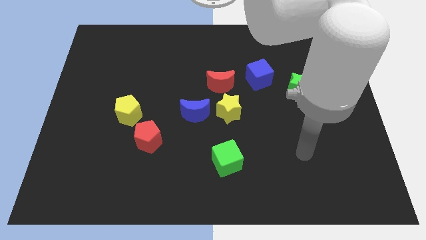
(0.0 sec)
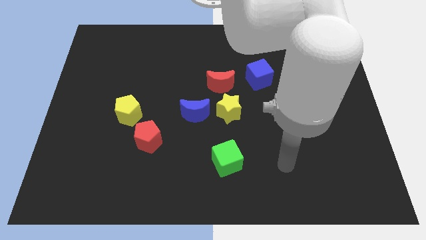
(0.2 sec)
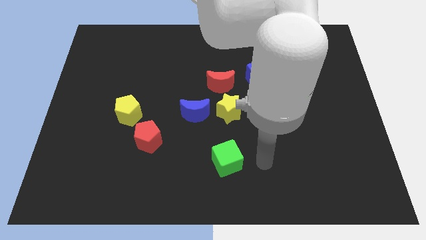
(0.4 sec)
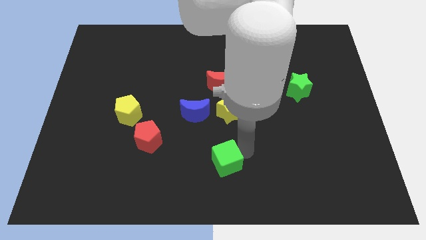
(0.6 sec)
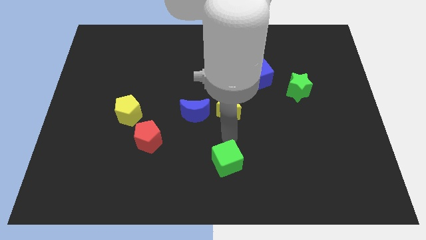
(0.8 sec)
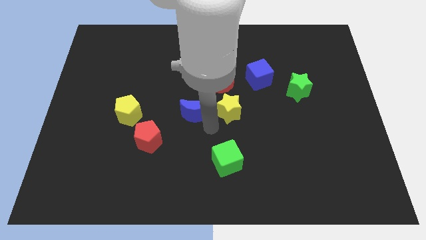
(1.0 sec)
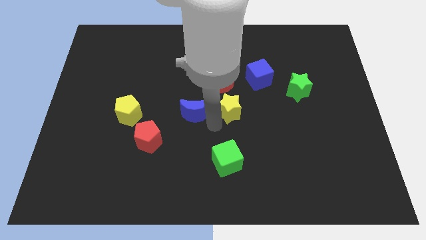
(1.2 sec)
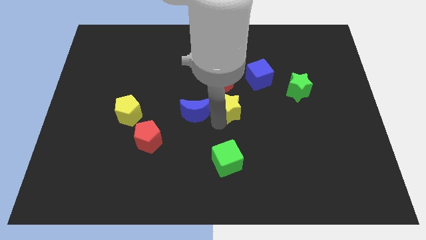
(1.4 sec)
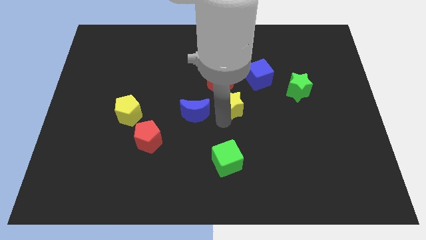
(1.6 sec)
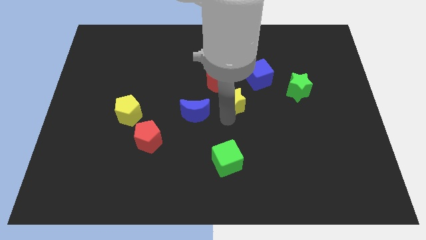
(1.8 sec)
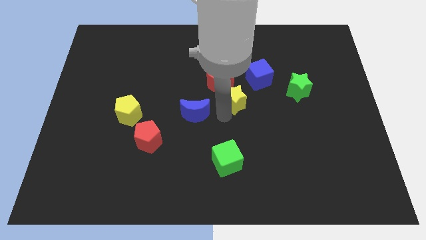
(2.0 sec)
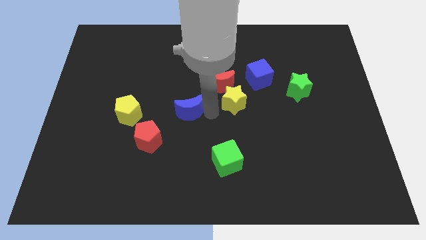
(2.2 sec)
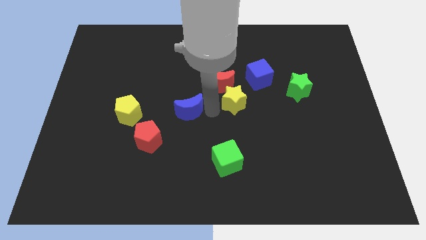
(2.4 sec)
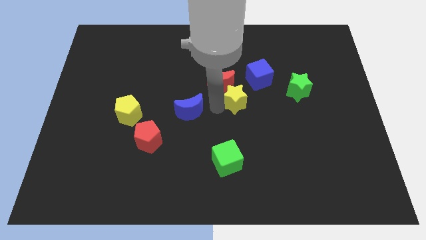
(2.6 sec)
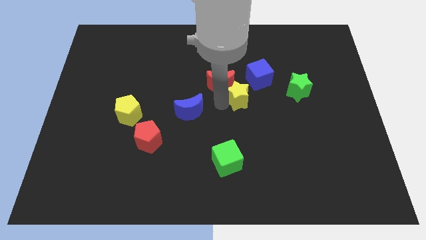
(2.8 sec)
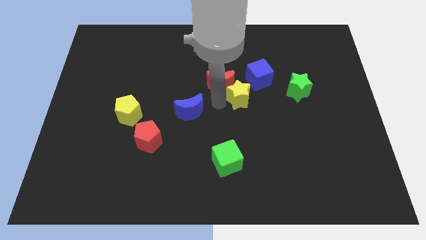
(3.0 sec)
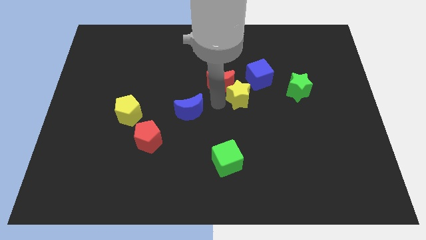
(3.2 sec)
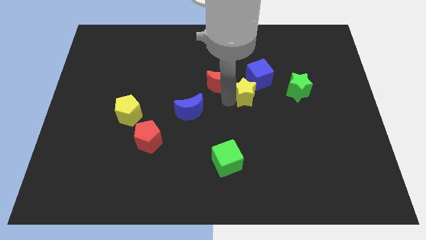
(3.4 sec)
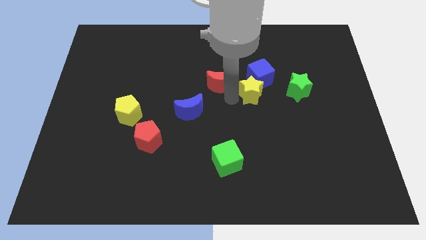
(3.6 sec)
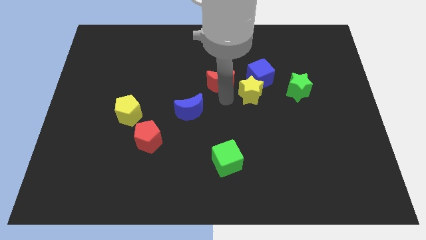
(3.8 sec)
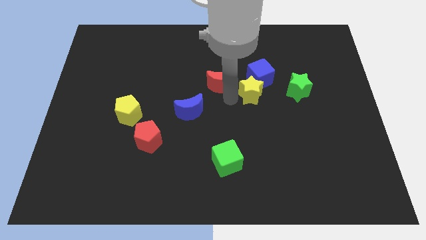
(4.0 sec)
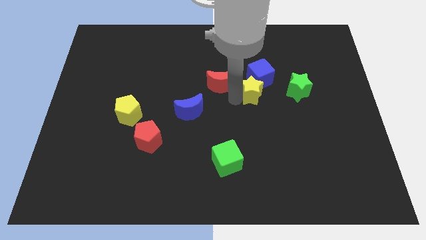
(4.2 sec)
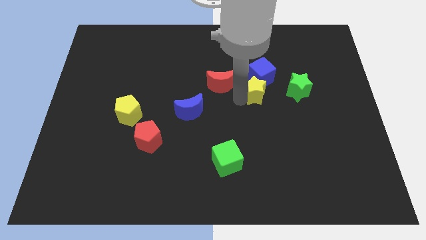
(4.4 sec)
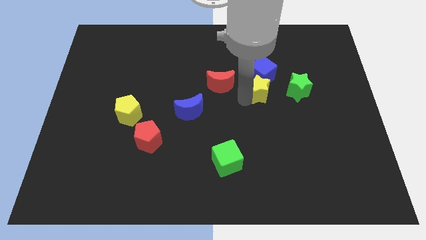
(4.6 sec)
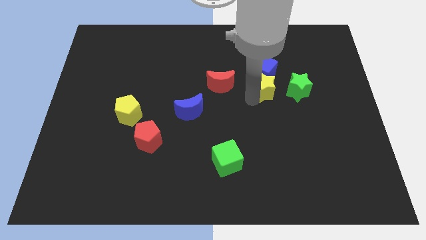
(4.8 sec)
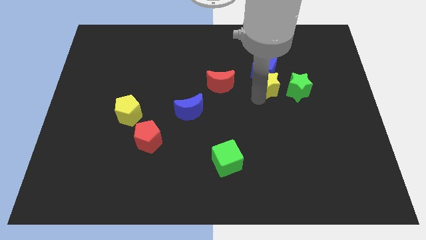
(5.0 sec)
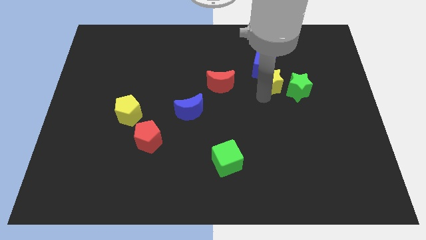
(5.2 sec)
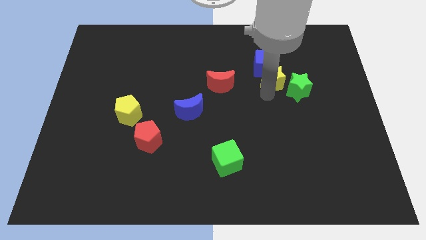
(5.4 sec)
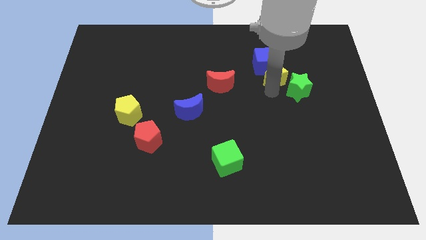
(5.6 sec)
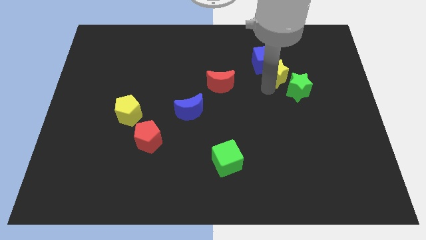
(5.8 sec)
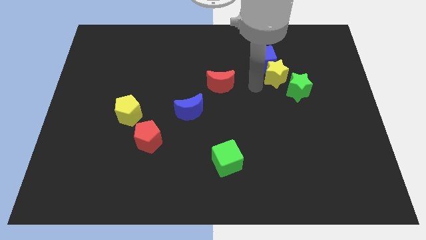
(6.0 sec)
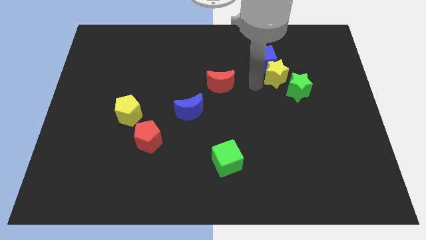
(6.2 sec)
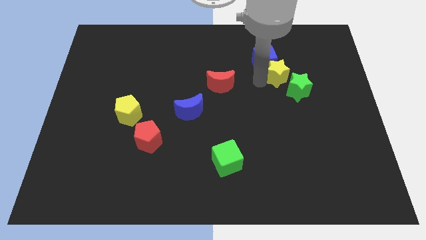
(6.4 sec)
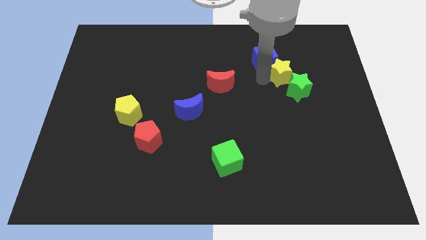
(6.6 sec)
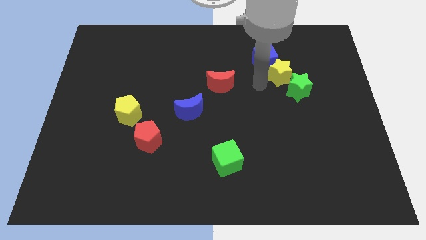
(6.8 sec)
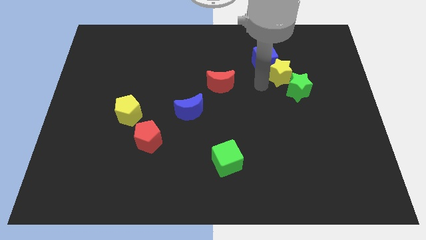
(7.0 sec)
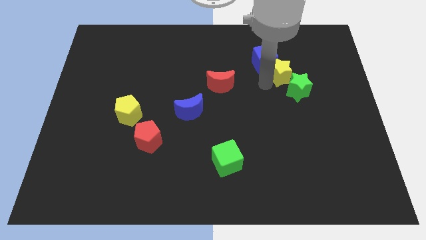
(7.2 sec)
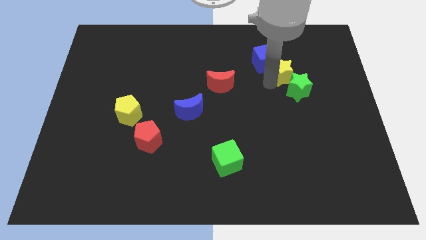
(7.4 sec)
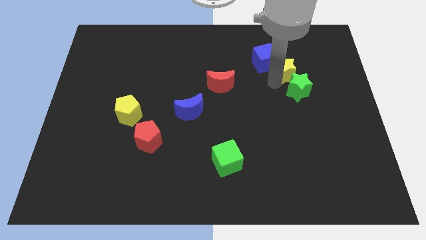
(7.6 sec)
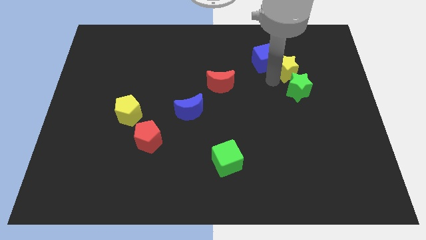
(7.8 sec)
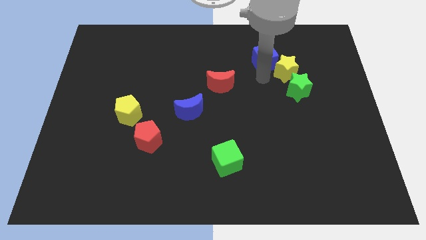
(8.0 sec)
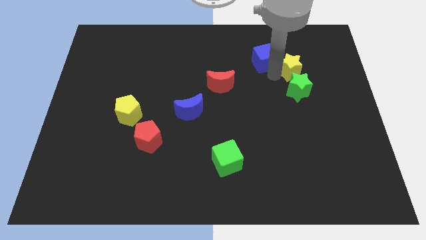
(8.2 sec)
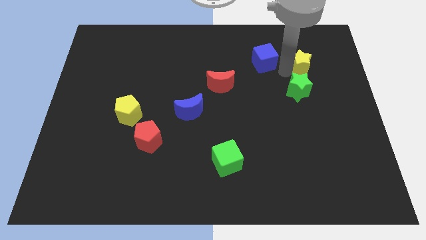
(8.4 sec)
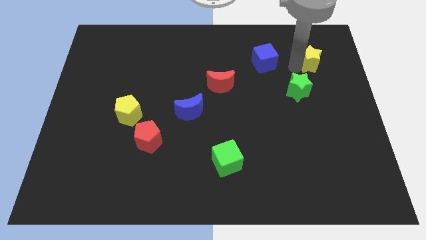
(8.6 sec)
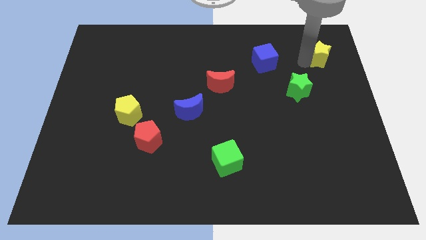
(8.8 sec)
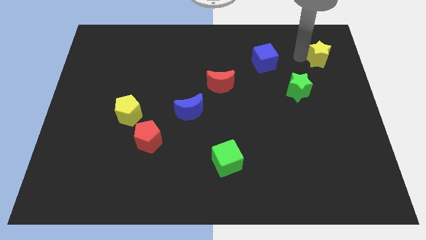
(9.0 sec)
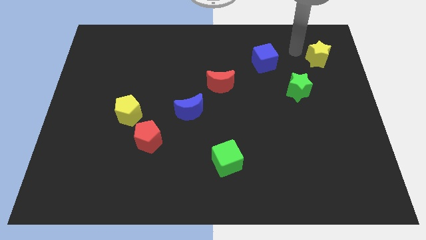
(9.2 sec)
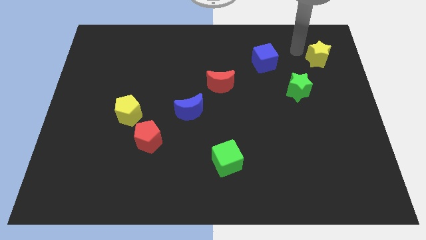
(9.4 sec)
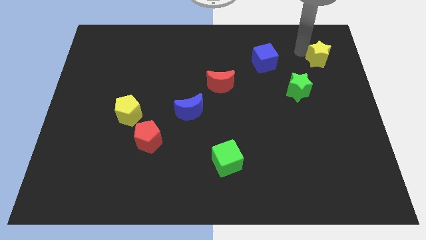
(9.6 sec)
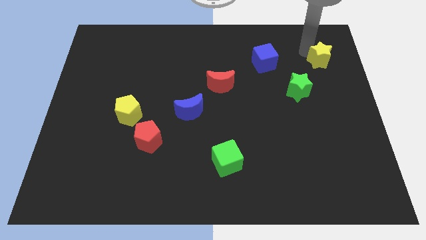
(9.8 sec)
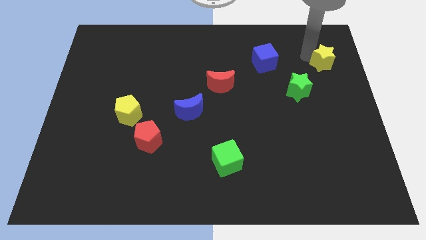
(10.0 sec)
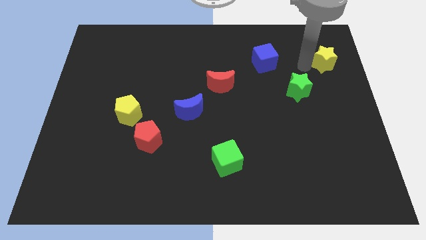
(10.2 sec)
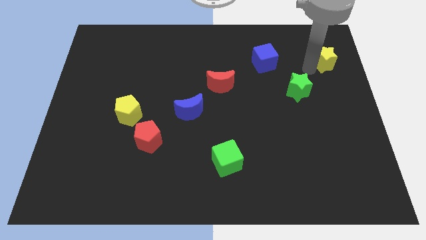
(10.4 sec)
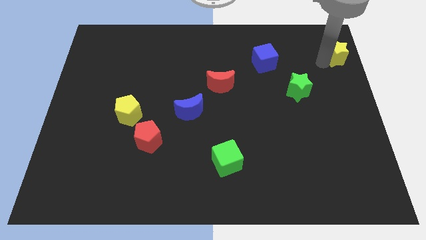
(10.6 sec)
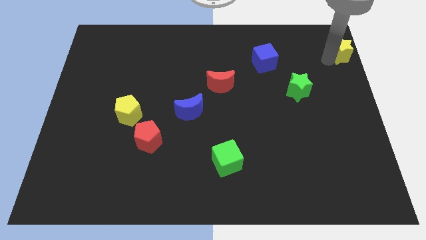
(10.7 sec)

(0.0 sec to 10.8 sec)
push the yellow star to the top right
